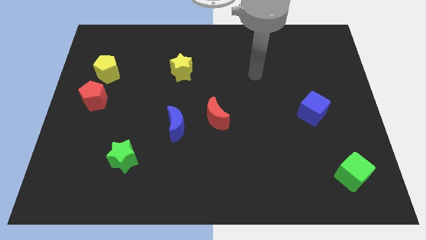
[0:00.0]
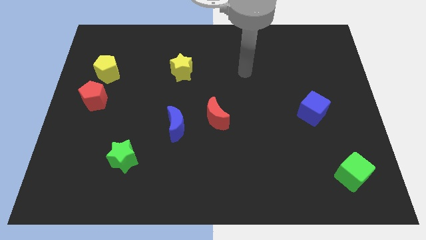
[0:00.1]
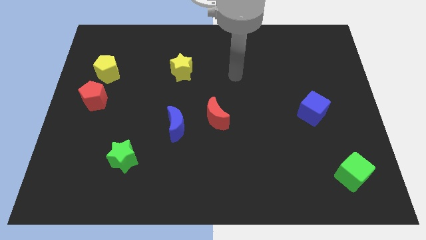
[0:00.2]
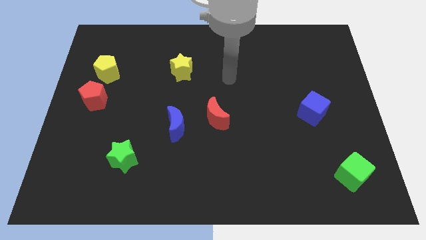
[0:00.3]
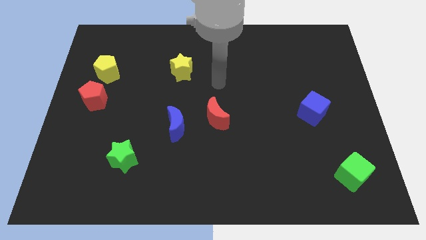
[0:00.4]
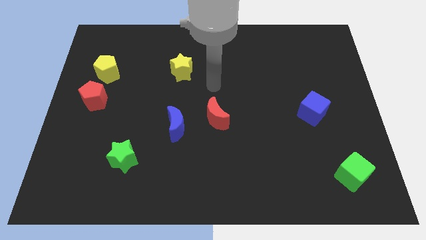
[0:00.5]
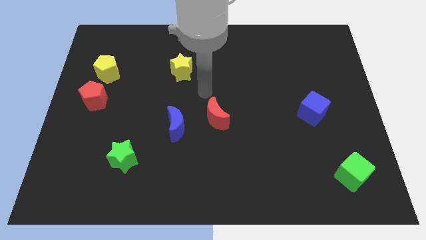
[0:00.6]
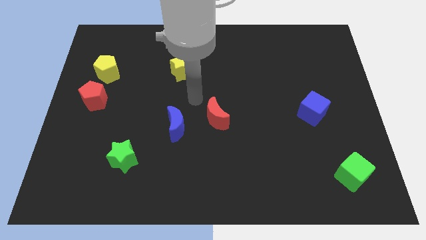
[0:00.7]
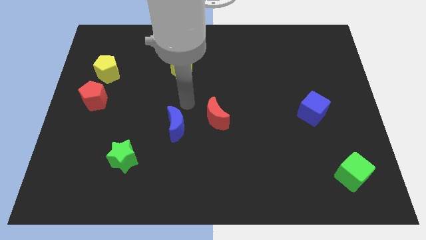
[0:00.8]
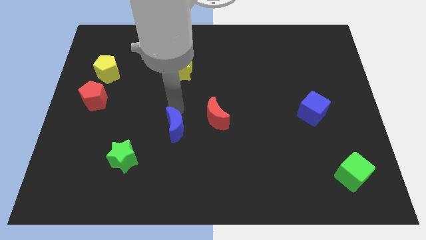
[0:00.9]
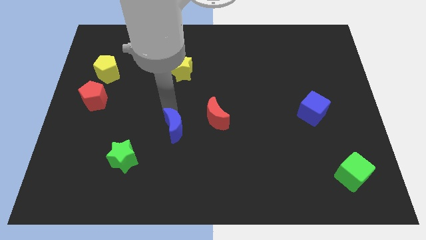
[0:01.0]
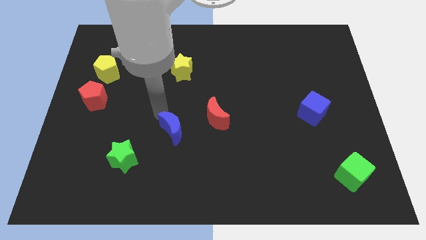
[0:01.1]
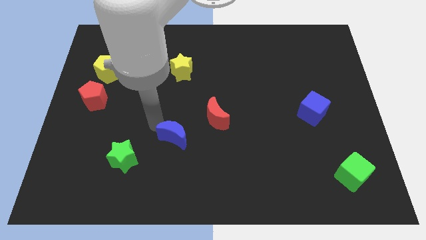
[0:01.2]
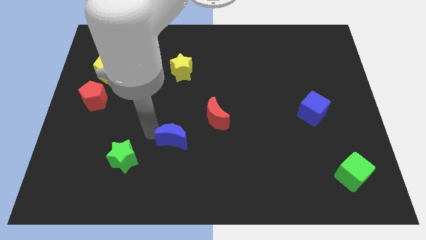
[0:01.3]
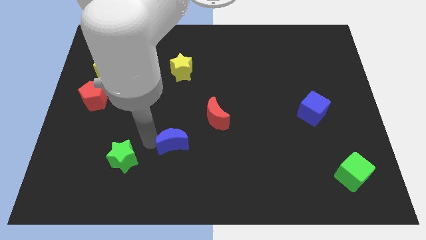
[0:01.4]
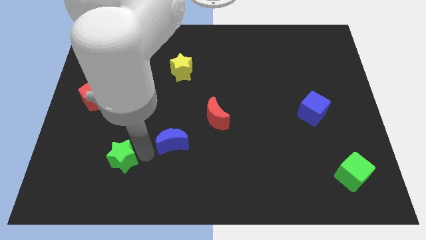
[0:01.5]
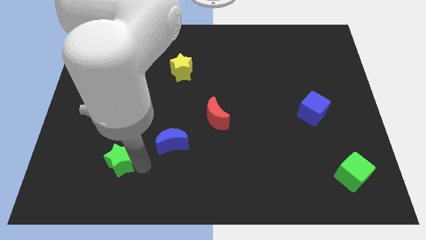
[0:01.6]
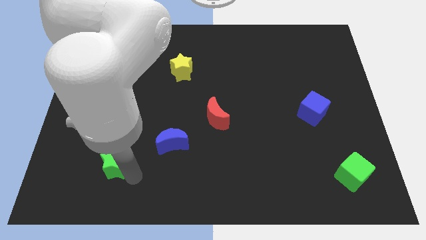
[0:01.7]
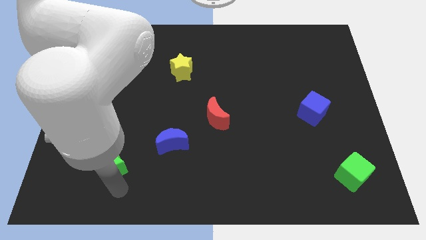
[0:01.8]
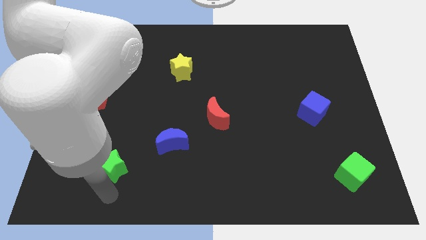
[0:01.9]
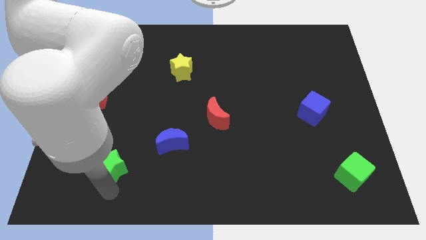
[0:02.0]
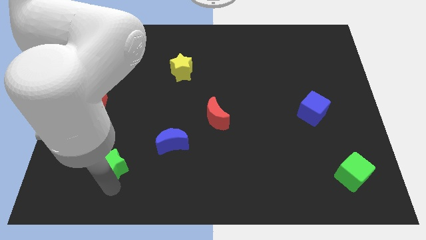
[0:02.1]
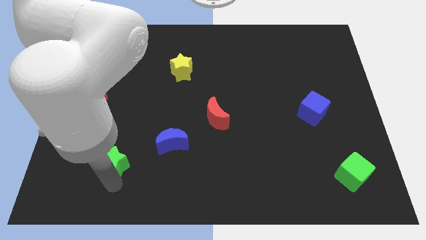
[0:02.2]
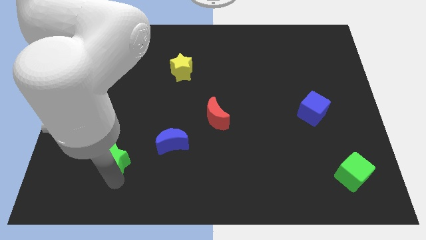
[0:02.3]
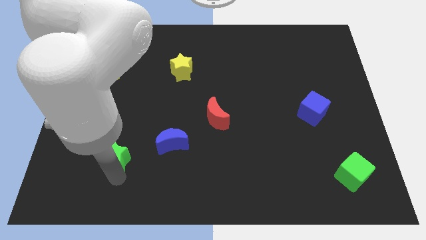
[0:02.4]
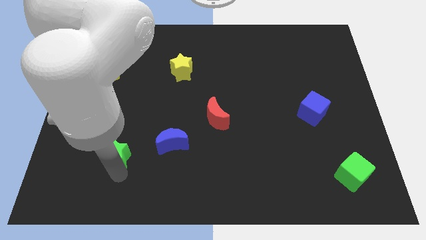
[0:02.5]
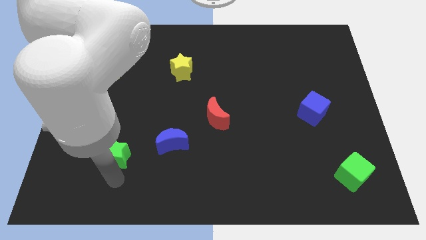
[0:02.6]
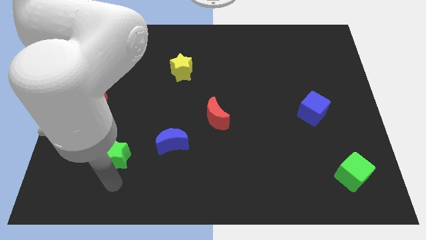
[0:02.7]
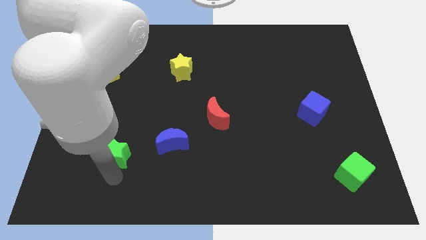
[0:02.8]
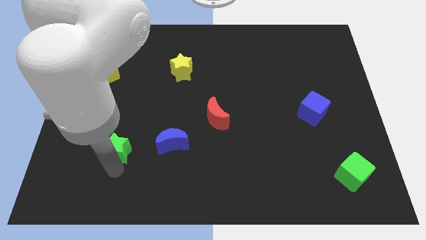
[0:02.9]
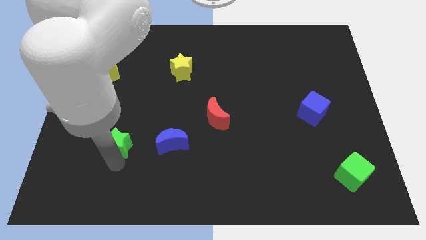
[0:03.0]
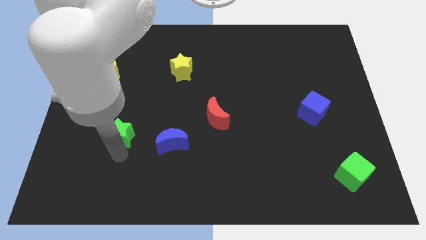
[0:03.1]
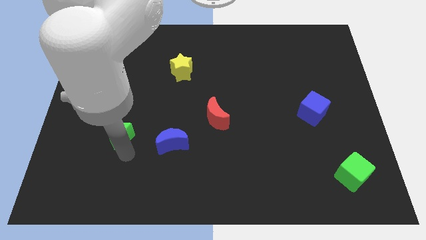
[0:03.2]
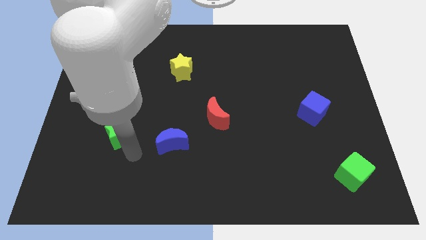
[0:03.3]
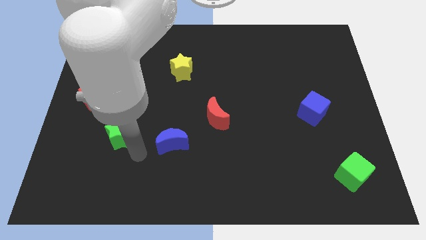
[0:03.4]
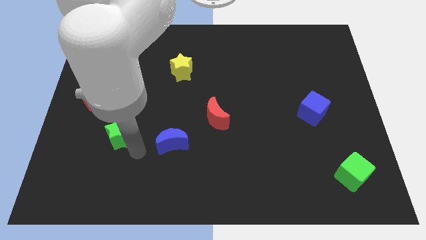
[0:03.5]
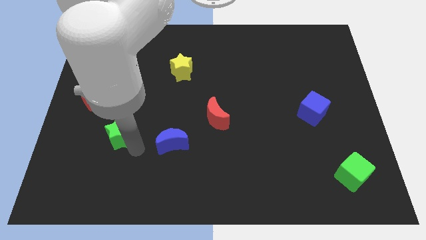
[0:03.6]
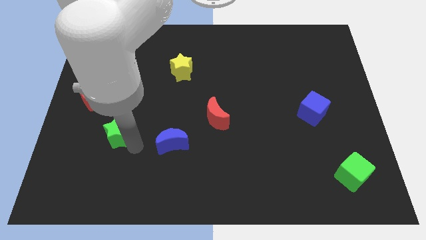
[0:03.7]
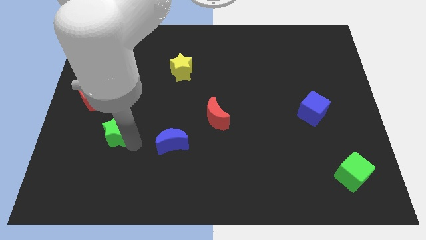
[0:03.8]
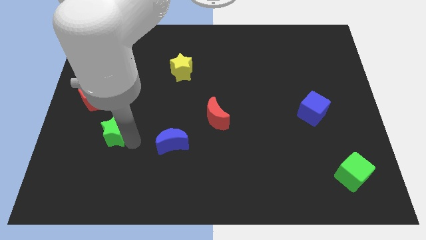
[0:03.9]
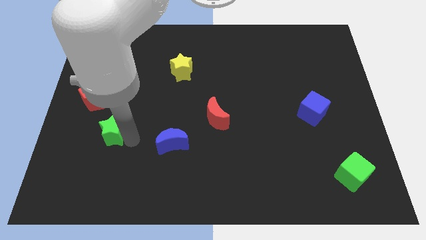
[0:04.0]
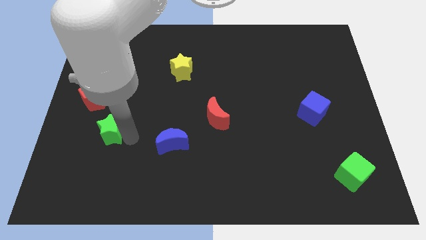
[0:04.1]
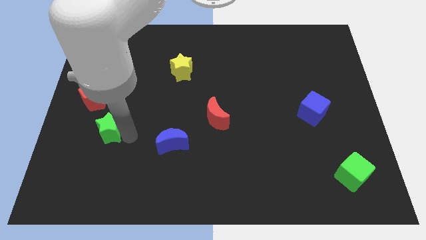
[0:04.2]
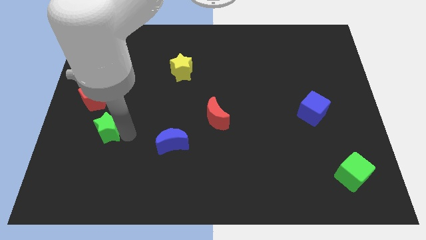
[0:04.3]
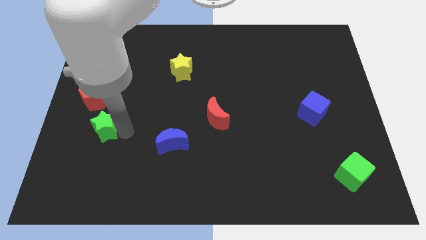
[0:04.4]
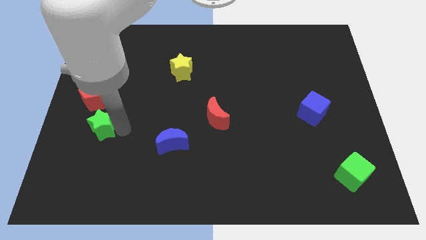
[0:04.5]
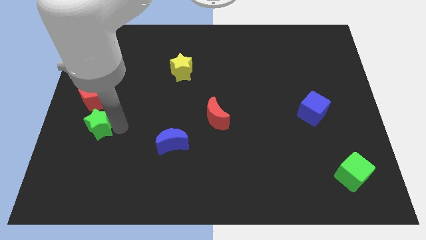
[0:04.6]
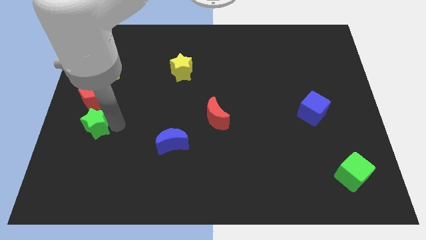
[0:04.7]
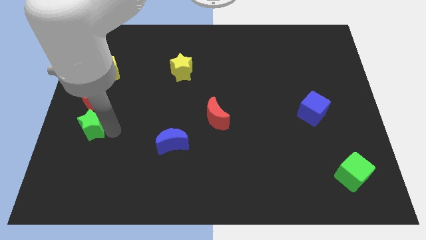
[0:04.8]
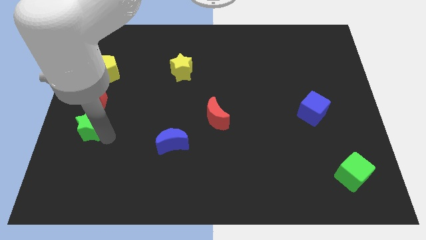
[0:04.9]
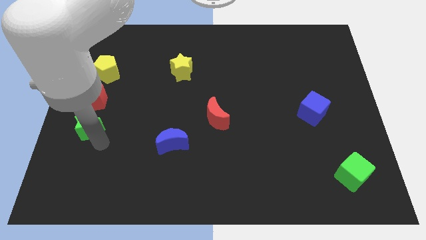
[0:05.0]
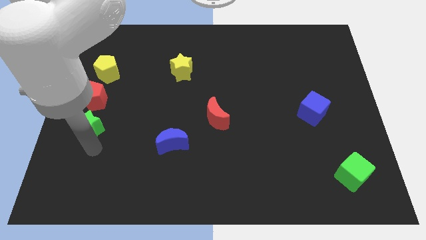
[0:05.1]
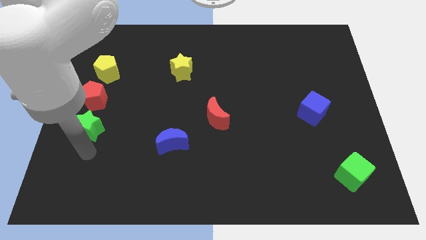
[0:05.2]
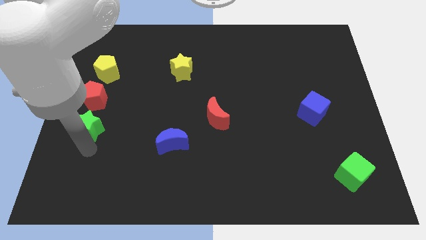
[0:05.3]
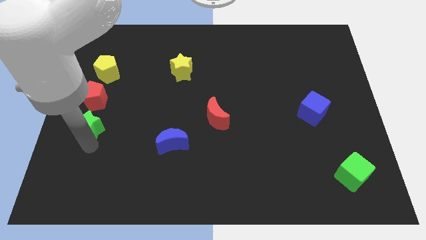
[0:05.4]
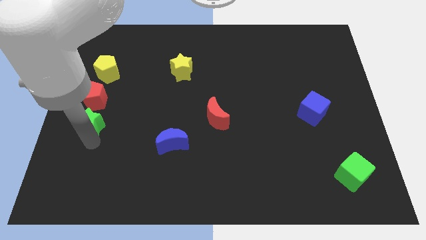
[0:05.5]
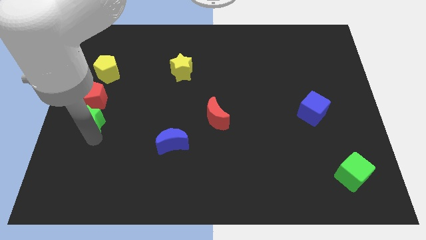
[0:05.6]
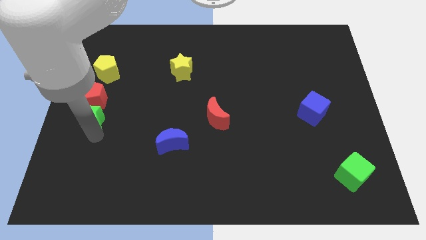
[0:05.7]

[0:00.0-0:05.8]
slide the green star to the red pentagon

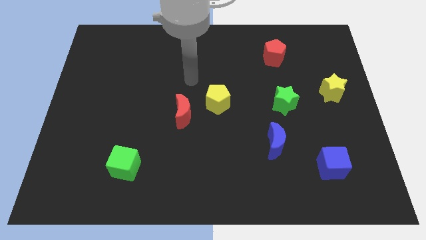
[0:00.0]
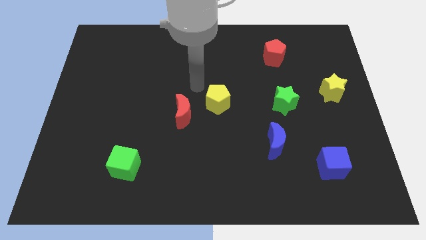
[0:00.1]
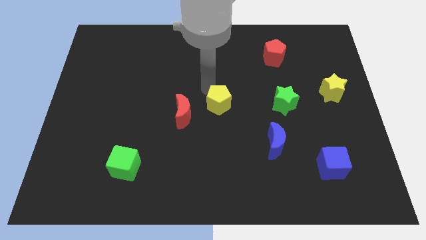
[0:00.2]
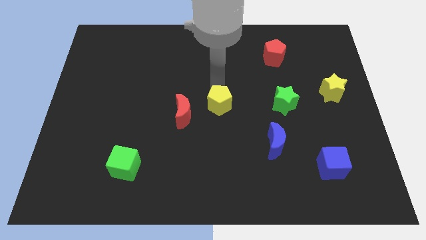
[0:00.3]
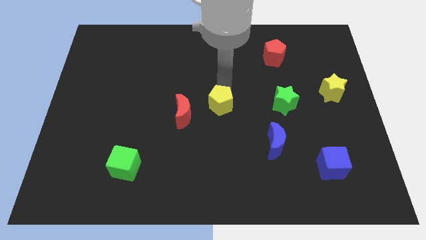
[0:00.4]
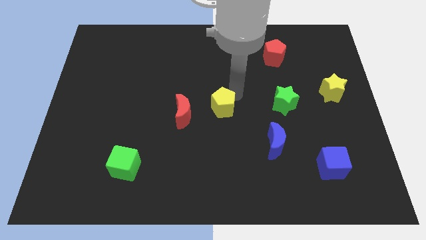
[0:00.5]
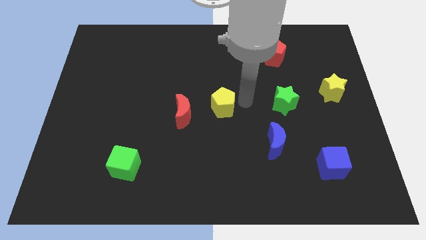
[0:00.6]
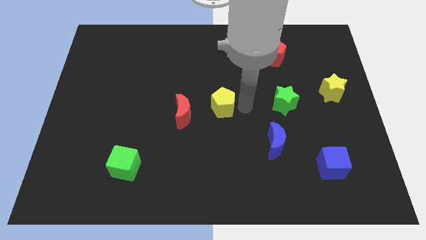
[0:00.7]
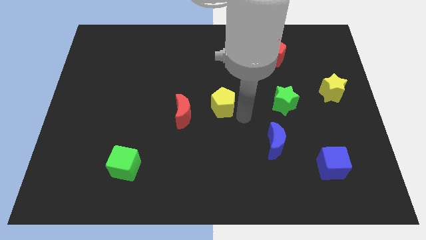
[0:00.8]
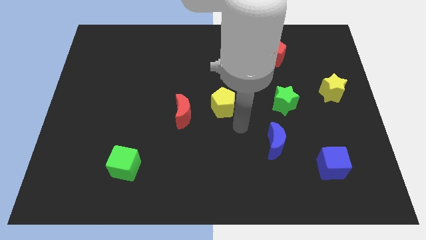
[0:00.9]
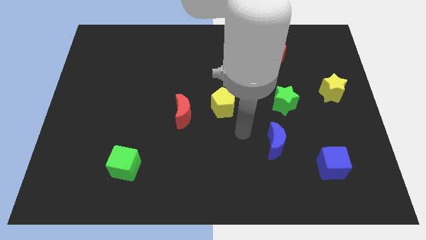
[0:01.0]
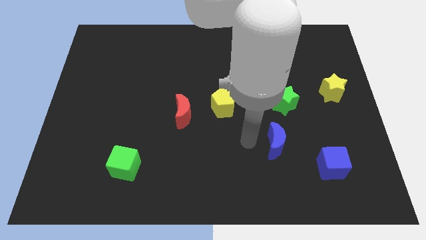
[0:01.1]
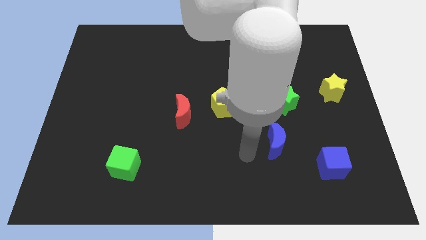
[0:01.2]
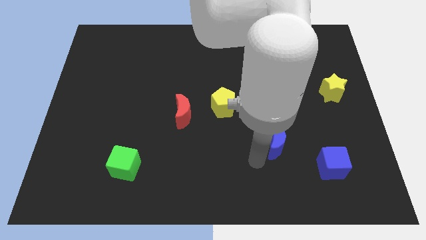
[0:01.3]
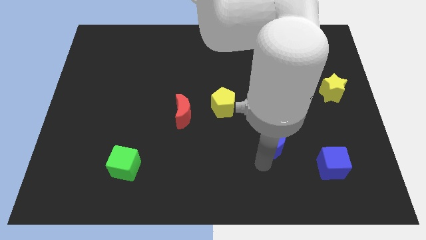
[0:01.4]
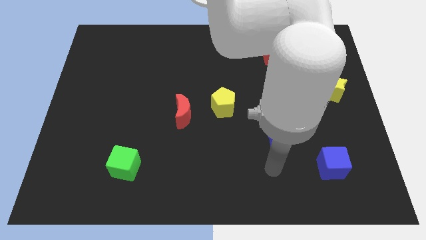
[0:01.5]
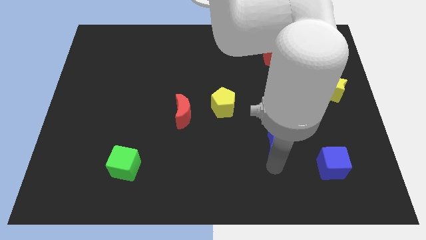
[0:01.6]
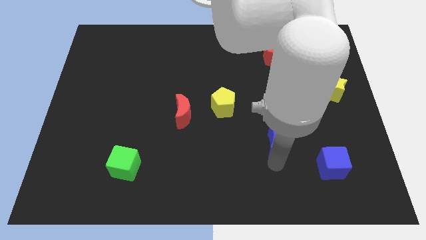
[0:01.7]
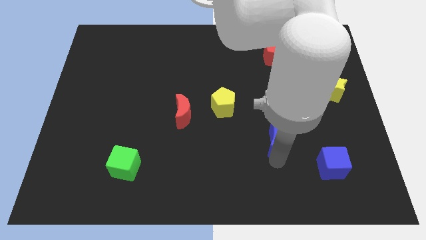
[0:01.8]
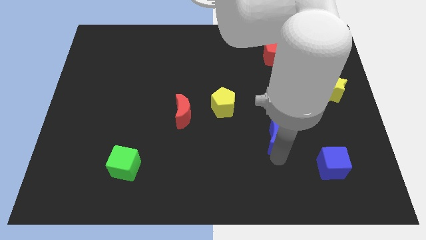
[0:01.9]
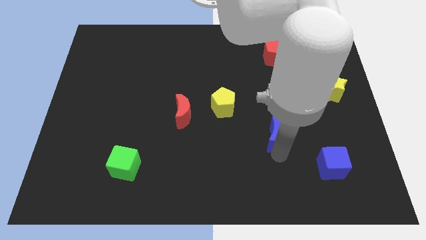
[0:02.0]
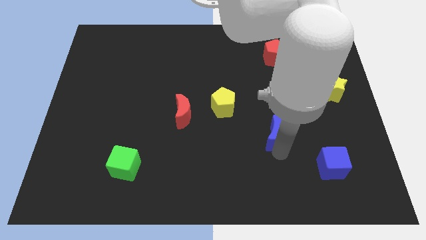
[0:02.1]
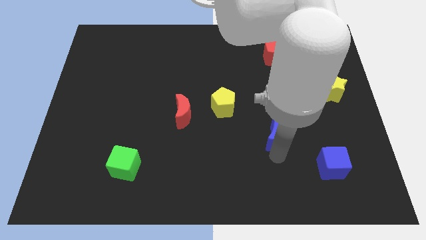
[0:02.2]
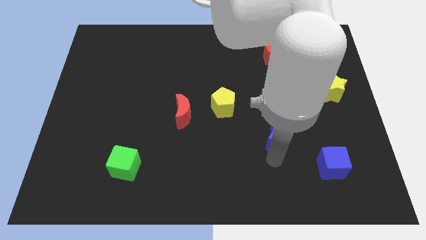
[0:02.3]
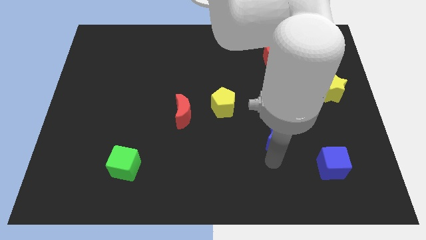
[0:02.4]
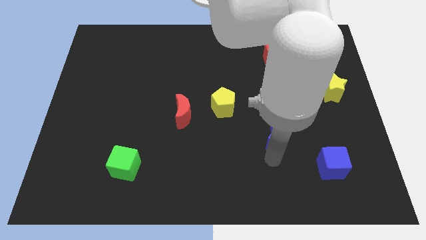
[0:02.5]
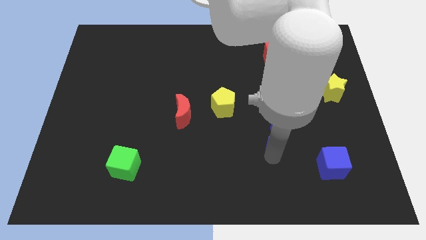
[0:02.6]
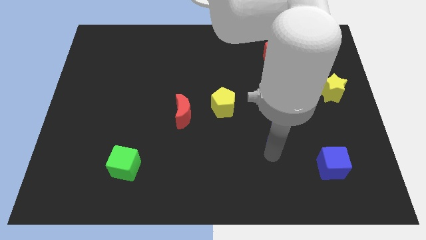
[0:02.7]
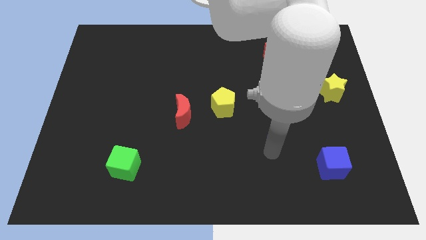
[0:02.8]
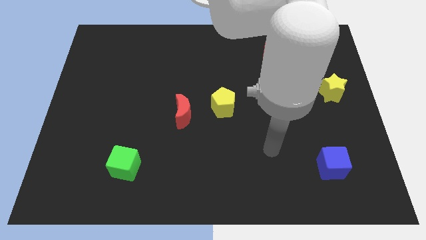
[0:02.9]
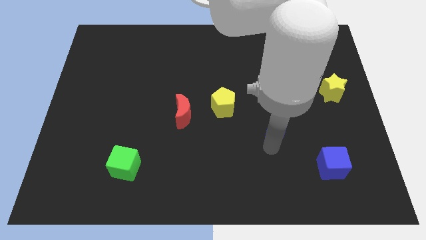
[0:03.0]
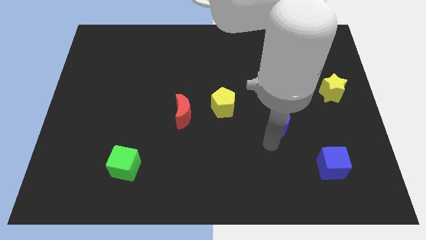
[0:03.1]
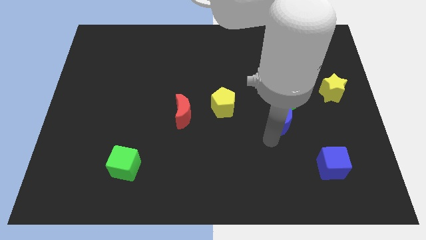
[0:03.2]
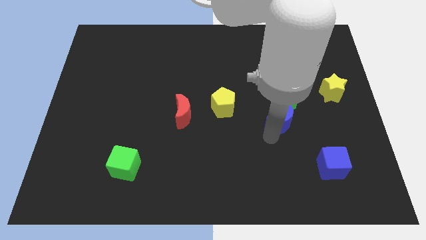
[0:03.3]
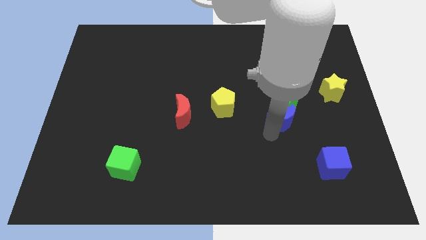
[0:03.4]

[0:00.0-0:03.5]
slide the blue moon close to the green star
